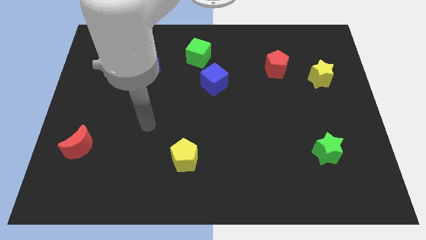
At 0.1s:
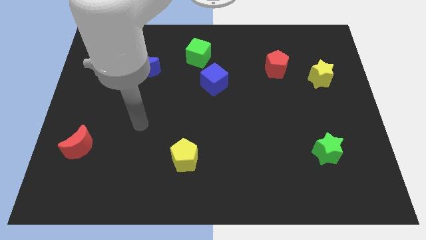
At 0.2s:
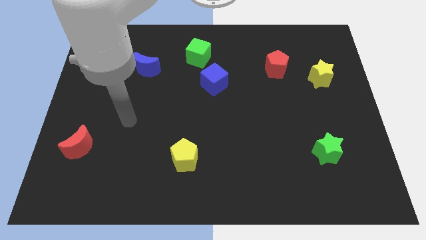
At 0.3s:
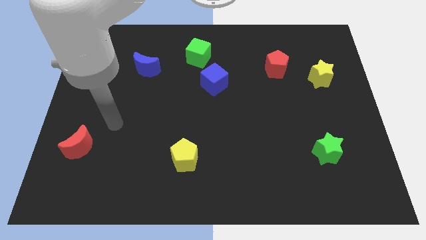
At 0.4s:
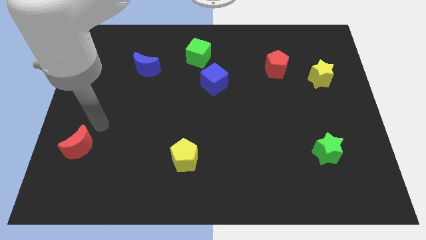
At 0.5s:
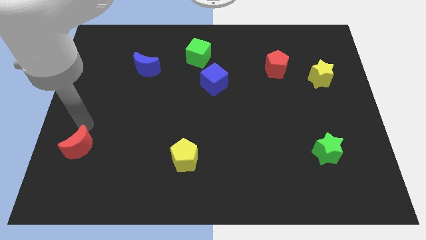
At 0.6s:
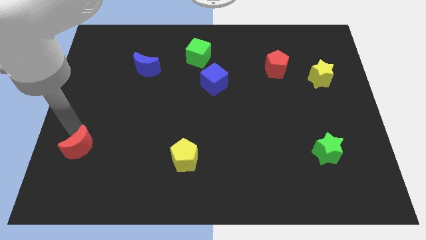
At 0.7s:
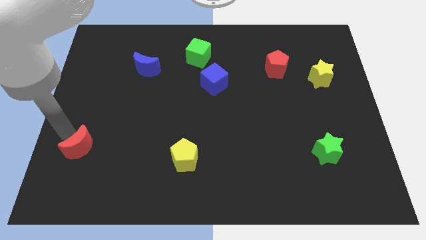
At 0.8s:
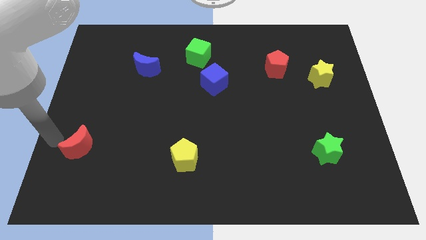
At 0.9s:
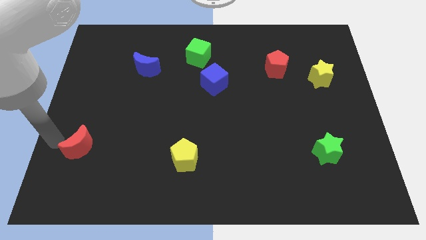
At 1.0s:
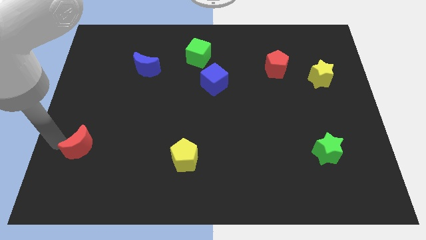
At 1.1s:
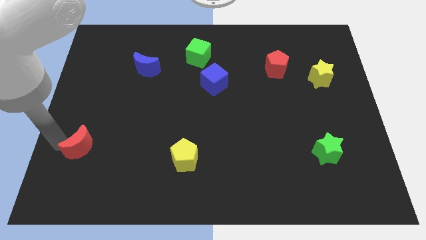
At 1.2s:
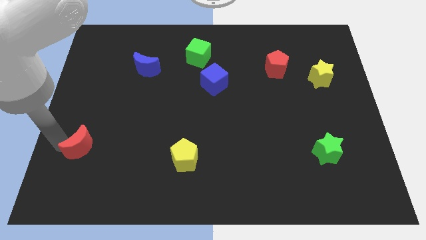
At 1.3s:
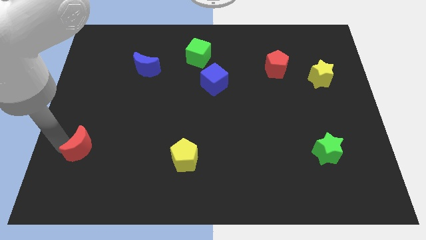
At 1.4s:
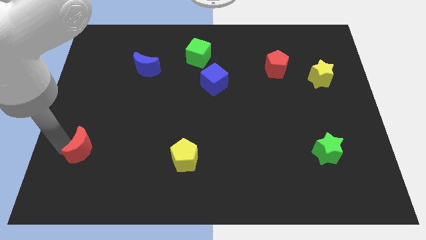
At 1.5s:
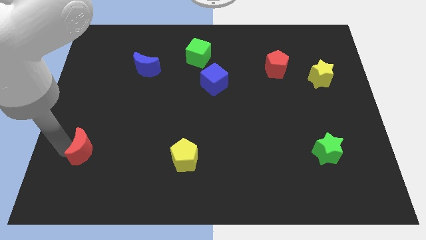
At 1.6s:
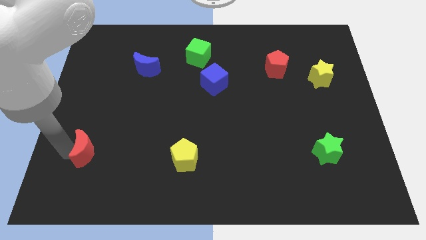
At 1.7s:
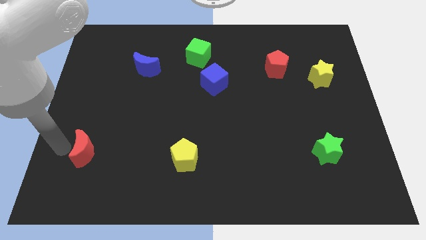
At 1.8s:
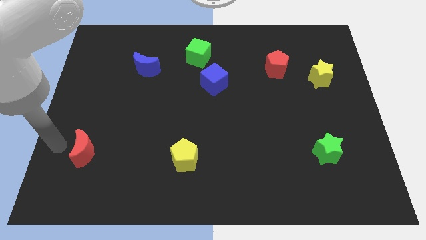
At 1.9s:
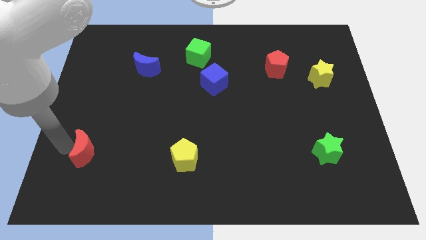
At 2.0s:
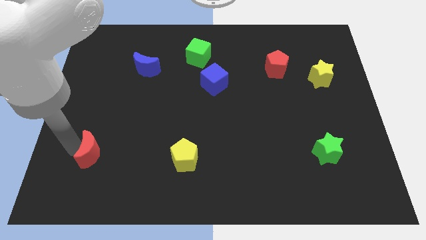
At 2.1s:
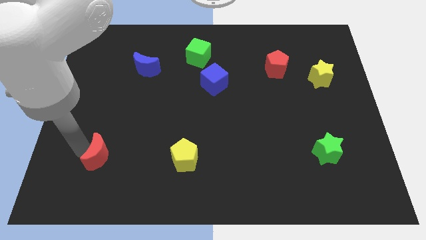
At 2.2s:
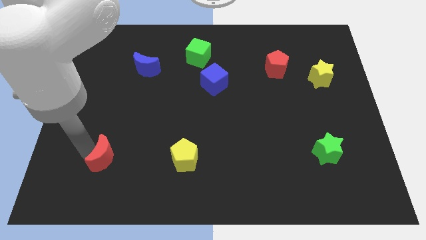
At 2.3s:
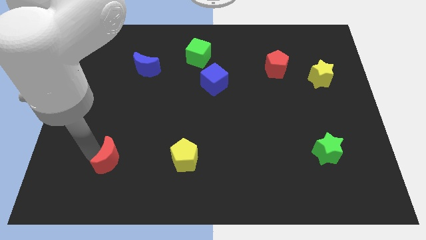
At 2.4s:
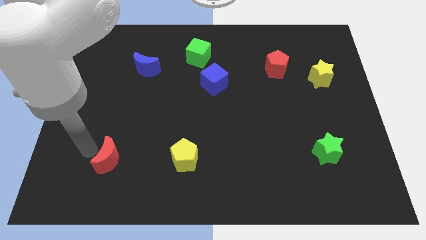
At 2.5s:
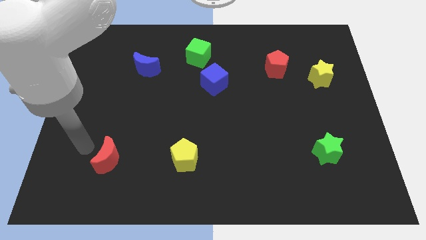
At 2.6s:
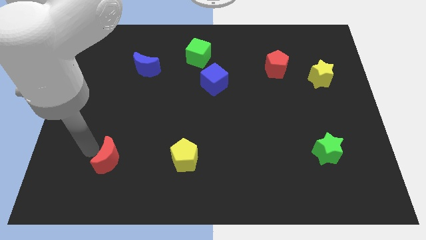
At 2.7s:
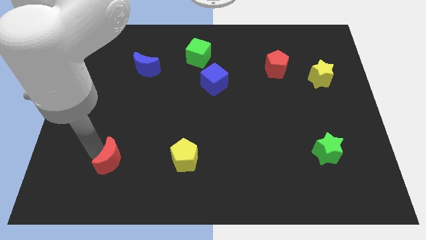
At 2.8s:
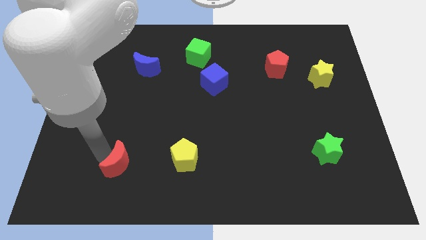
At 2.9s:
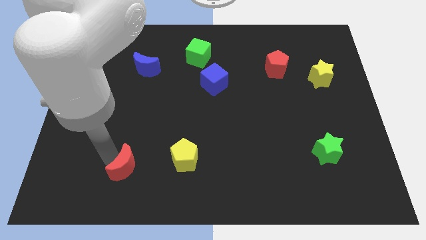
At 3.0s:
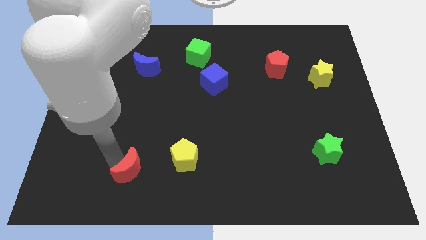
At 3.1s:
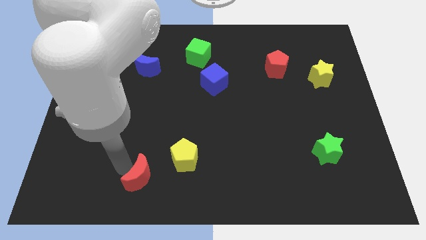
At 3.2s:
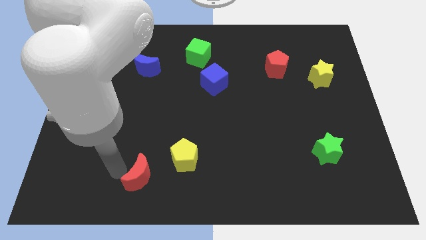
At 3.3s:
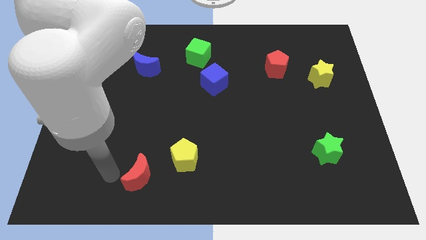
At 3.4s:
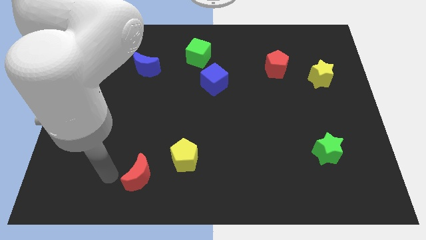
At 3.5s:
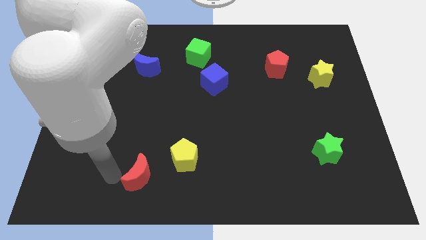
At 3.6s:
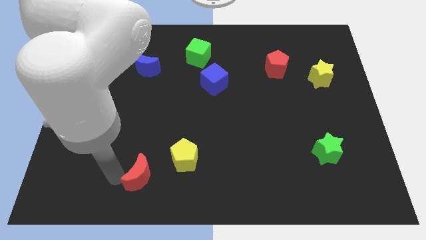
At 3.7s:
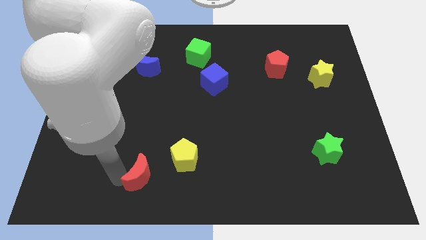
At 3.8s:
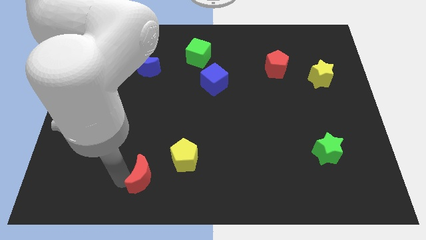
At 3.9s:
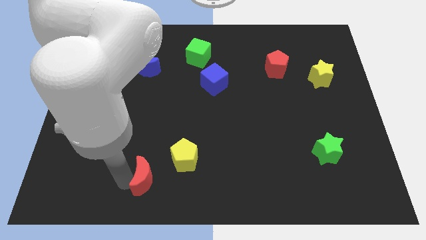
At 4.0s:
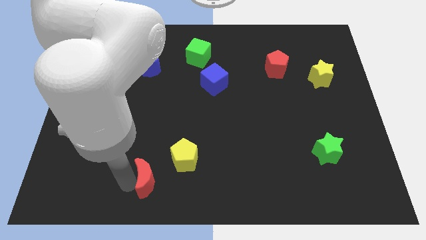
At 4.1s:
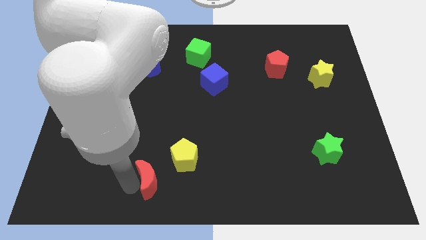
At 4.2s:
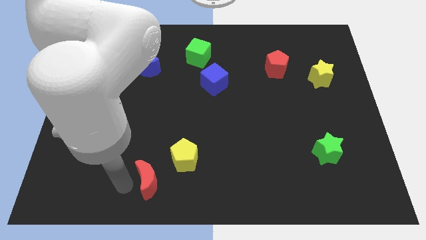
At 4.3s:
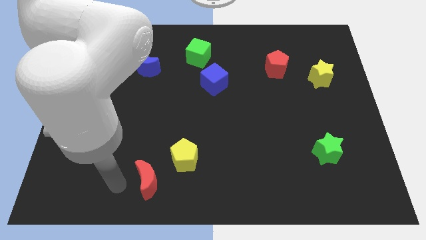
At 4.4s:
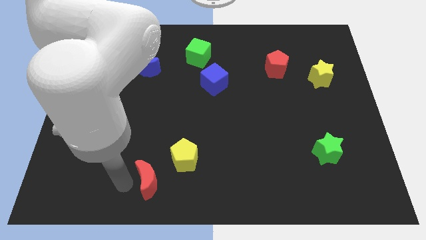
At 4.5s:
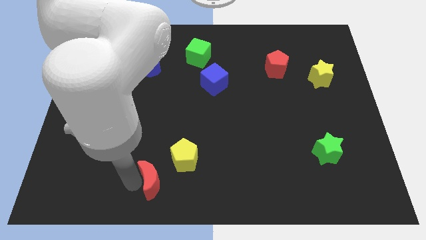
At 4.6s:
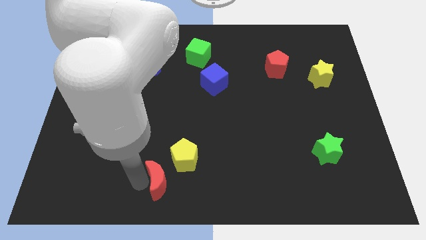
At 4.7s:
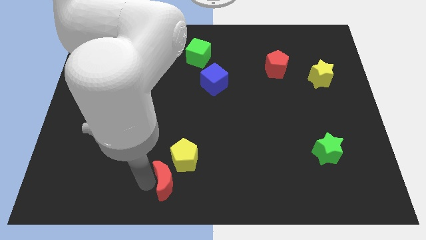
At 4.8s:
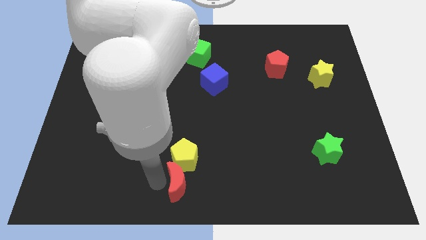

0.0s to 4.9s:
move the red moon to the bottom right of the yellow pentagon

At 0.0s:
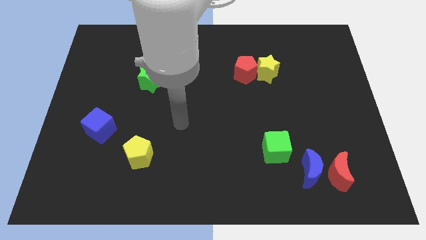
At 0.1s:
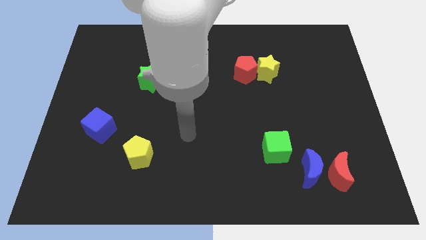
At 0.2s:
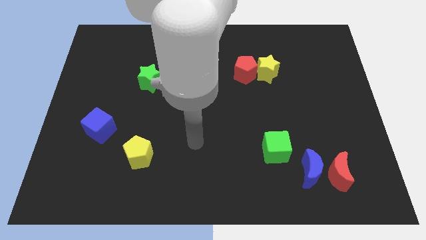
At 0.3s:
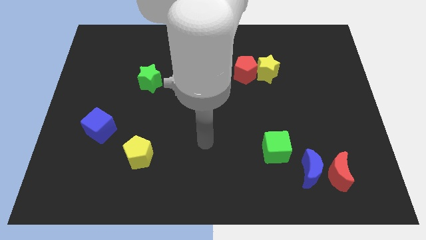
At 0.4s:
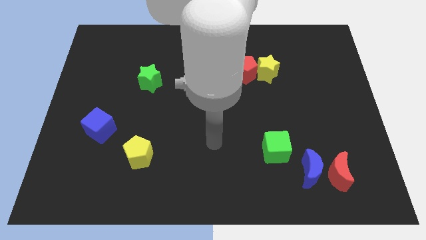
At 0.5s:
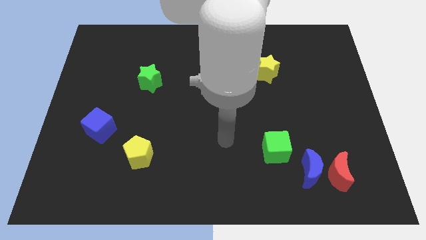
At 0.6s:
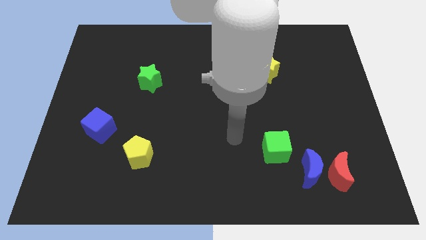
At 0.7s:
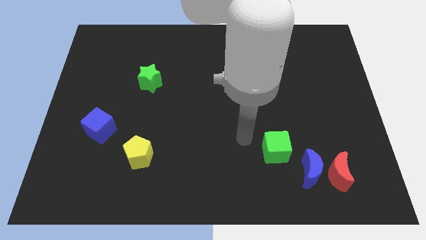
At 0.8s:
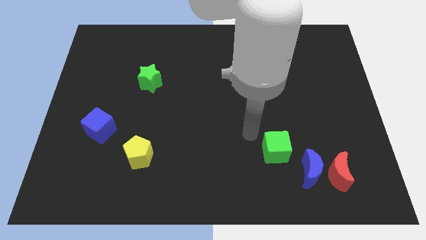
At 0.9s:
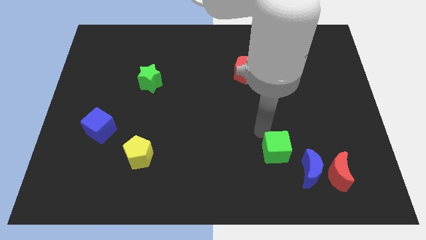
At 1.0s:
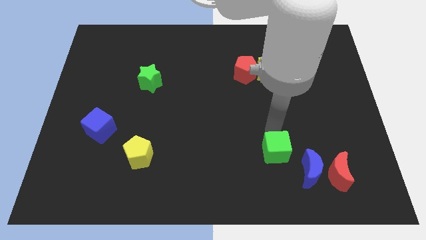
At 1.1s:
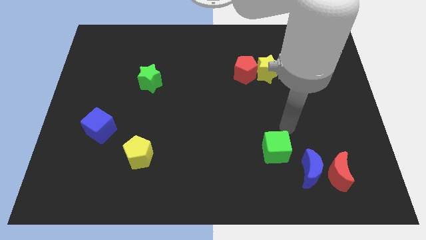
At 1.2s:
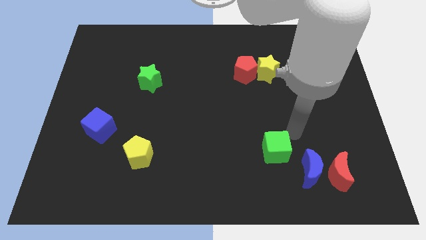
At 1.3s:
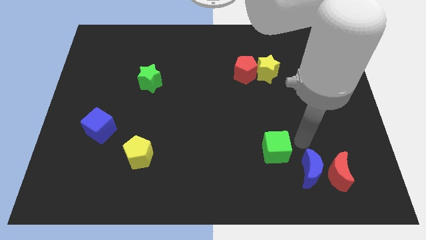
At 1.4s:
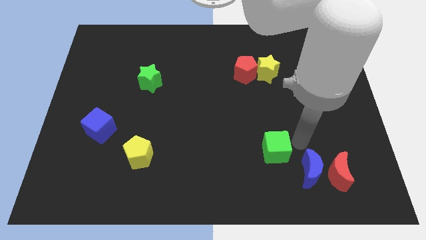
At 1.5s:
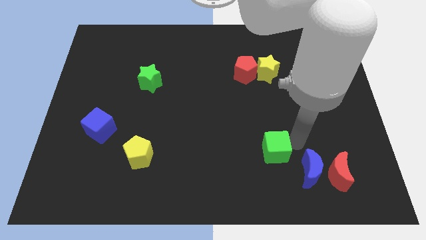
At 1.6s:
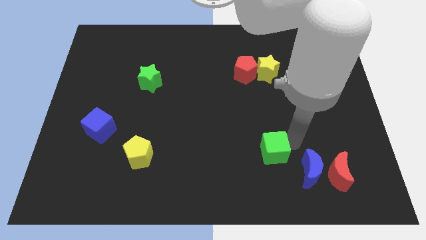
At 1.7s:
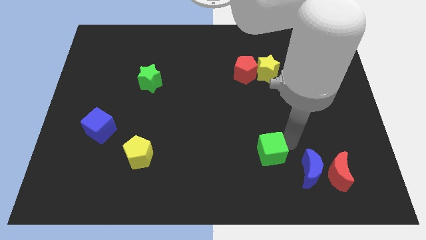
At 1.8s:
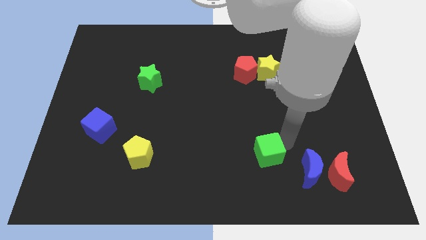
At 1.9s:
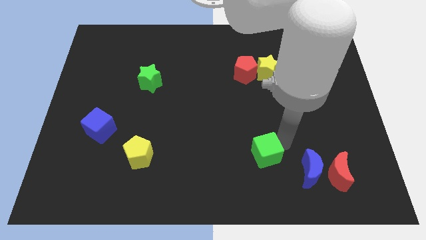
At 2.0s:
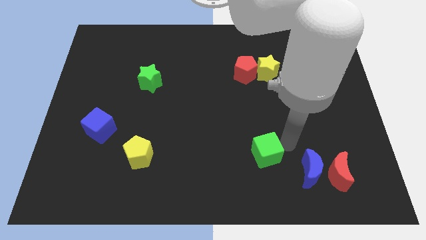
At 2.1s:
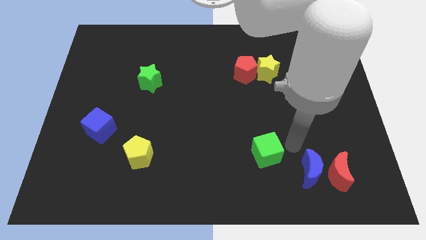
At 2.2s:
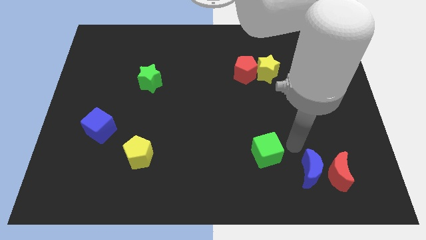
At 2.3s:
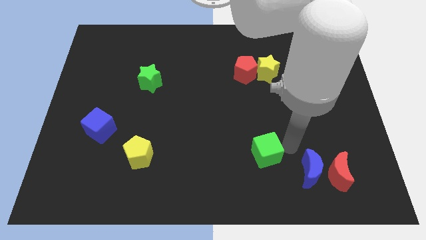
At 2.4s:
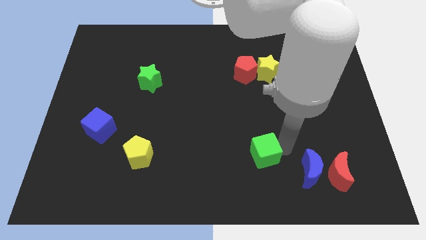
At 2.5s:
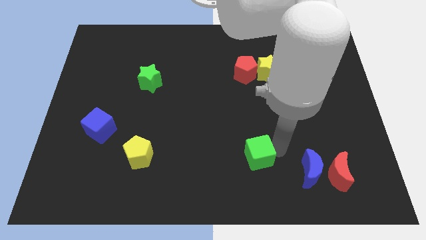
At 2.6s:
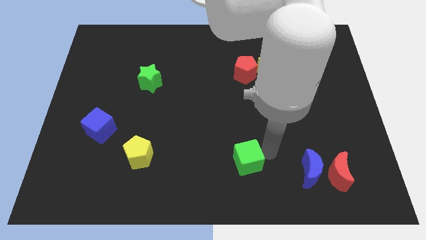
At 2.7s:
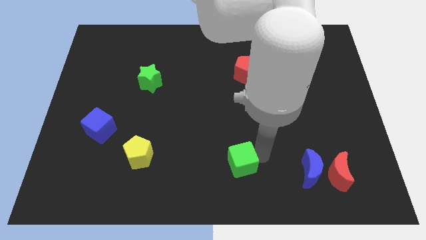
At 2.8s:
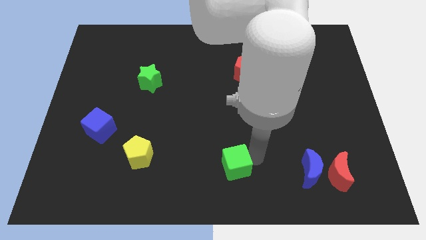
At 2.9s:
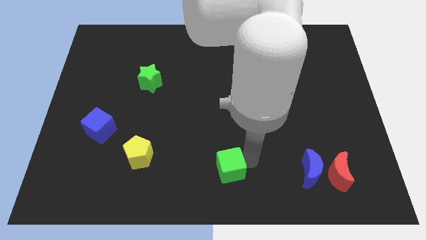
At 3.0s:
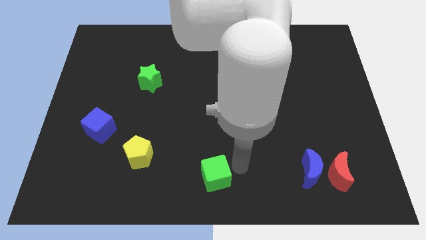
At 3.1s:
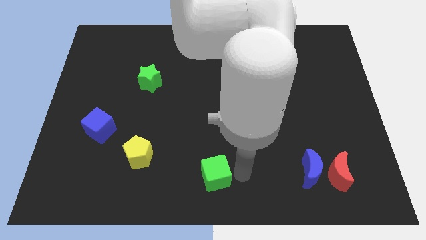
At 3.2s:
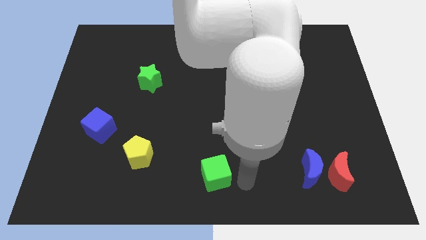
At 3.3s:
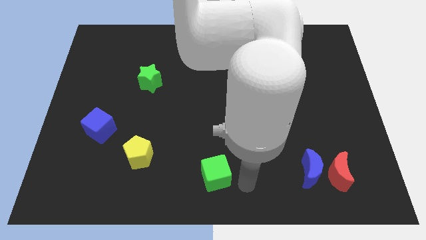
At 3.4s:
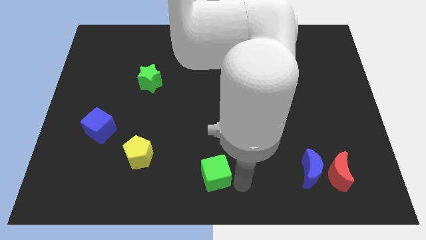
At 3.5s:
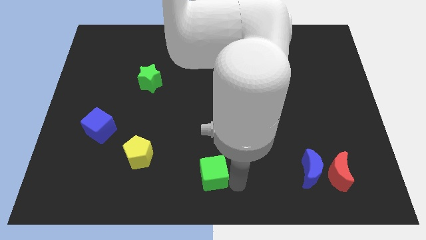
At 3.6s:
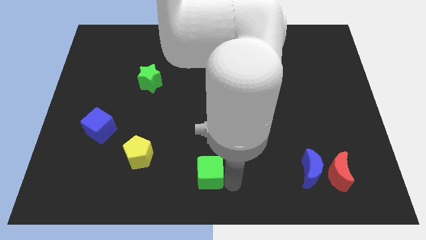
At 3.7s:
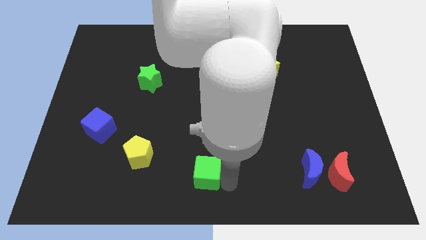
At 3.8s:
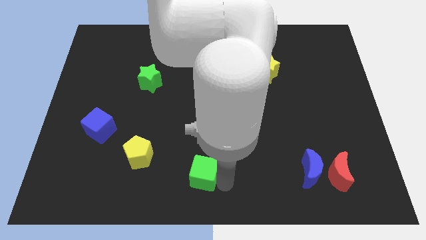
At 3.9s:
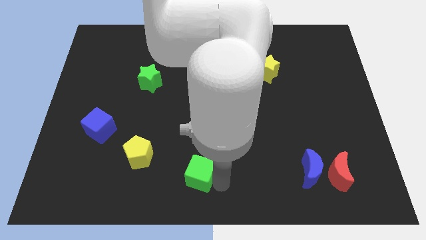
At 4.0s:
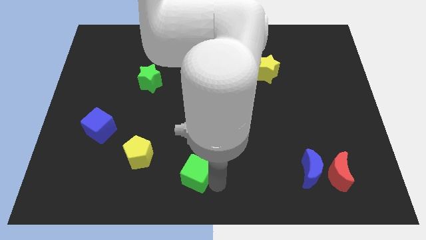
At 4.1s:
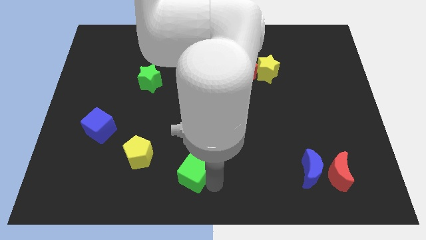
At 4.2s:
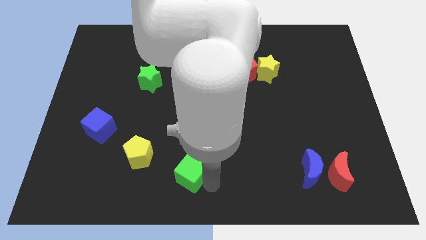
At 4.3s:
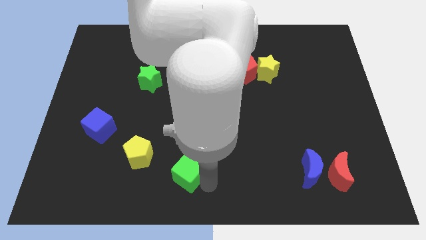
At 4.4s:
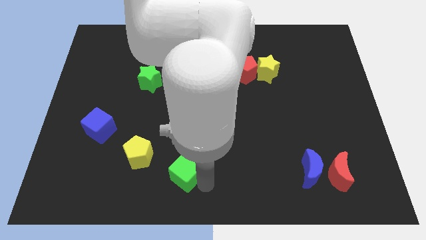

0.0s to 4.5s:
move the green cube to the bottom right side of the yellow pentagon
